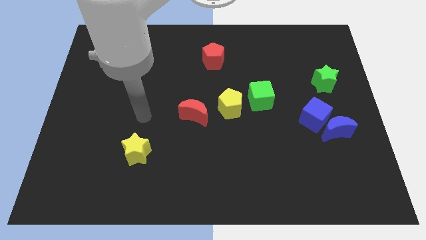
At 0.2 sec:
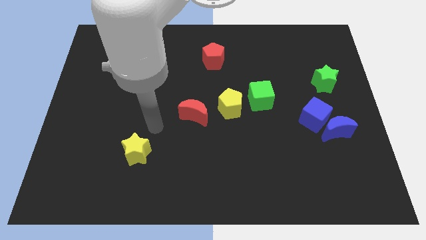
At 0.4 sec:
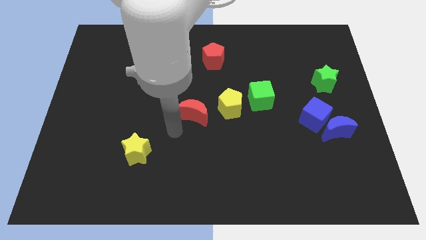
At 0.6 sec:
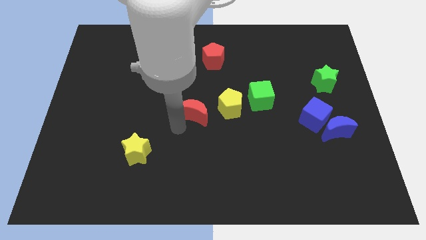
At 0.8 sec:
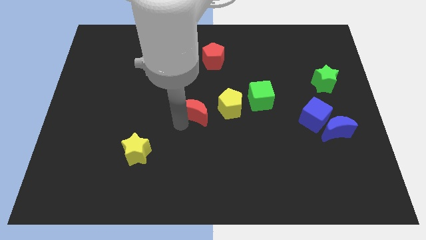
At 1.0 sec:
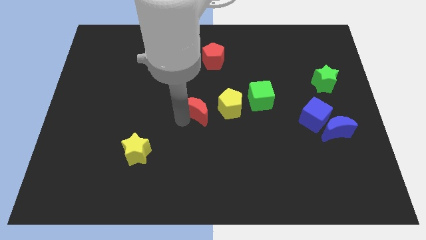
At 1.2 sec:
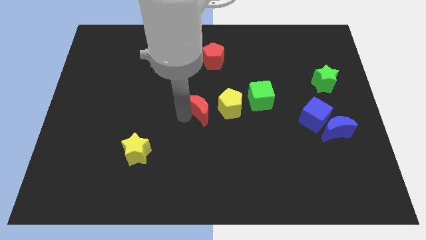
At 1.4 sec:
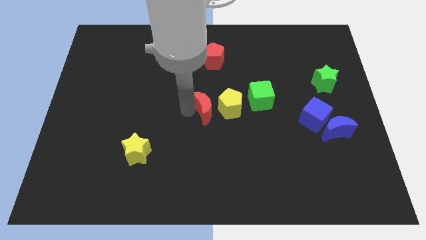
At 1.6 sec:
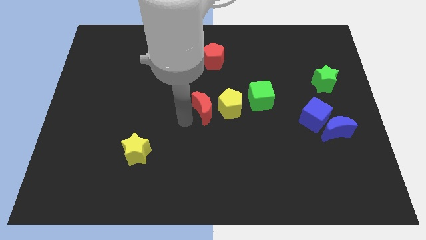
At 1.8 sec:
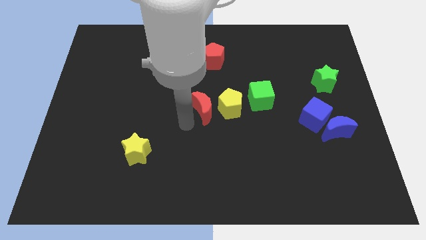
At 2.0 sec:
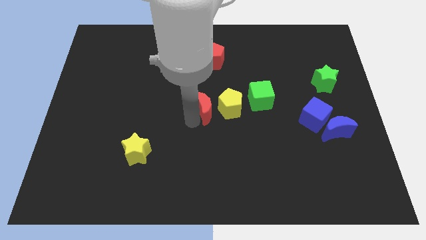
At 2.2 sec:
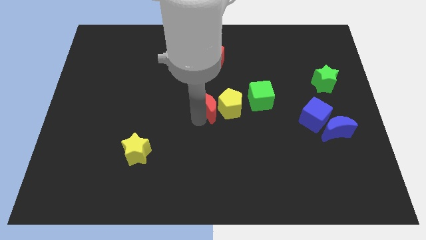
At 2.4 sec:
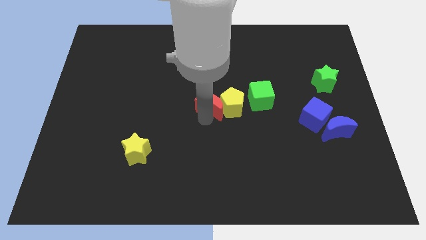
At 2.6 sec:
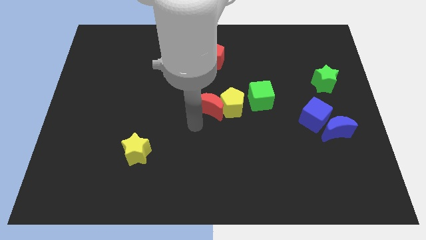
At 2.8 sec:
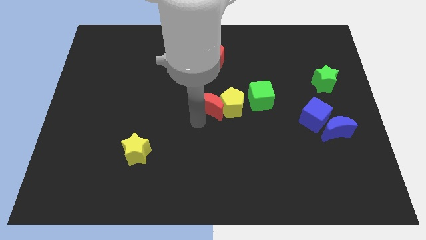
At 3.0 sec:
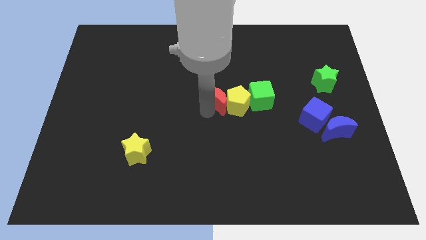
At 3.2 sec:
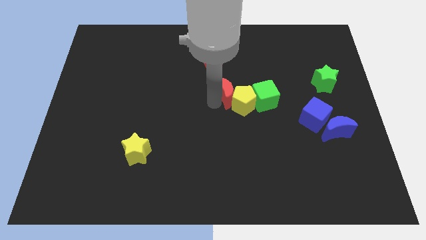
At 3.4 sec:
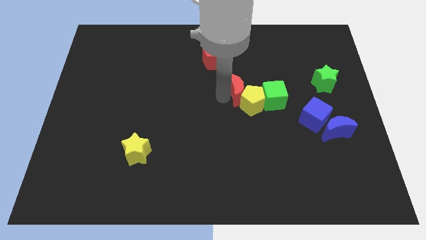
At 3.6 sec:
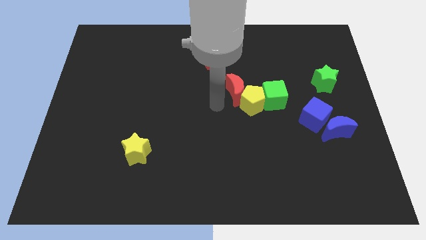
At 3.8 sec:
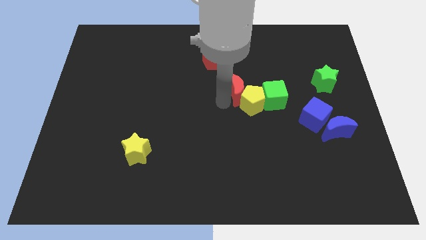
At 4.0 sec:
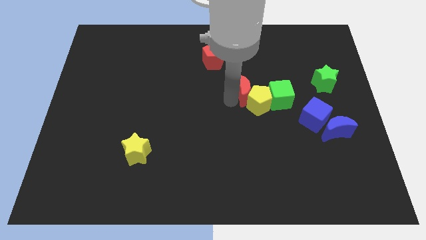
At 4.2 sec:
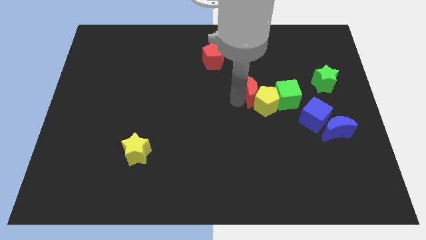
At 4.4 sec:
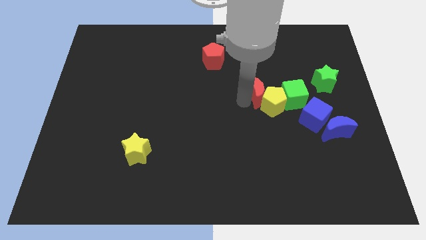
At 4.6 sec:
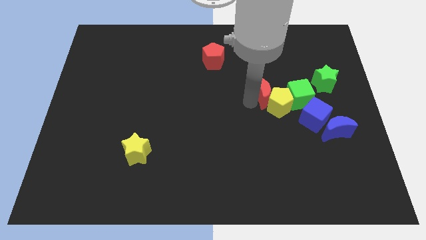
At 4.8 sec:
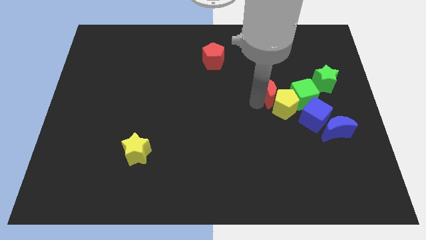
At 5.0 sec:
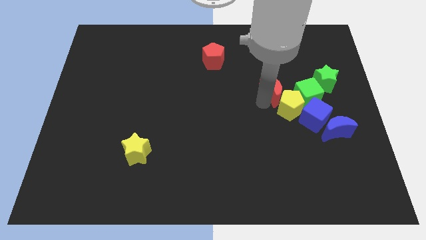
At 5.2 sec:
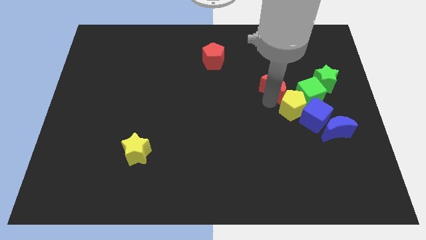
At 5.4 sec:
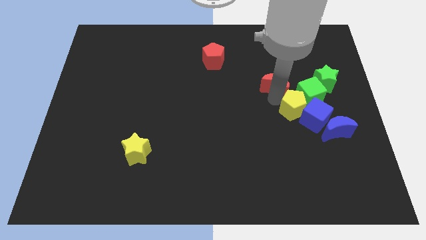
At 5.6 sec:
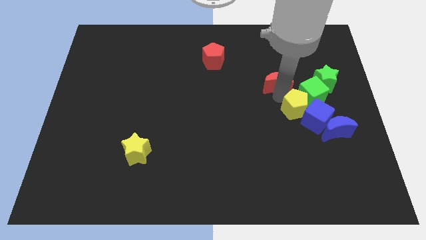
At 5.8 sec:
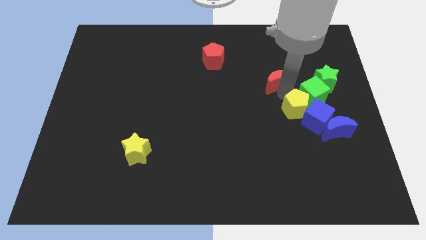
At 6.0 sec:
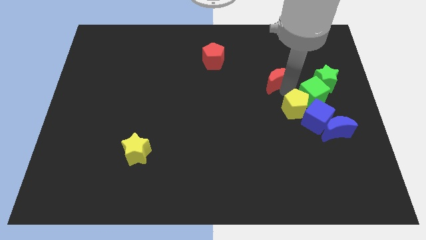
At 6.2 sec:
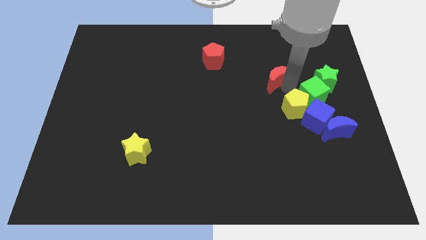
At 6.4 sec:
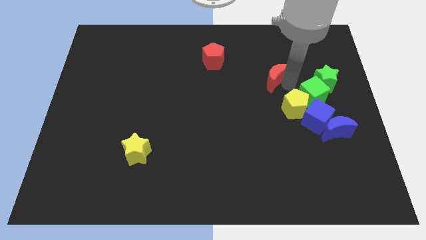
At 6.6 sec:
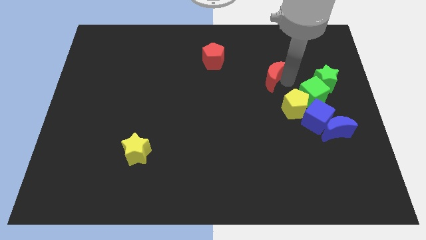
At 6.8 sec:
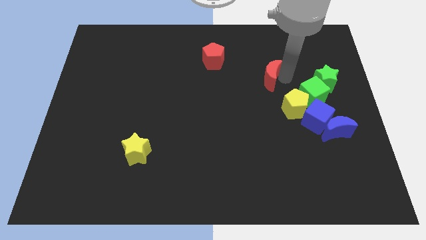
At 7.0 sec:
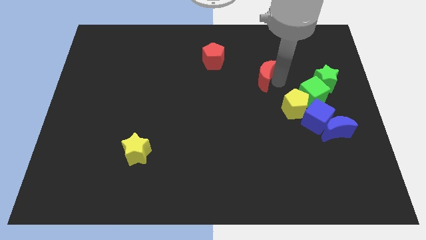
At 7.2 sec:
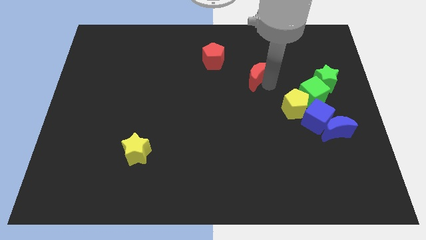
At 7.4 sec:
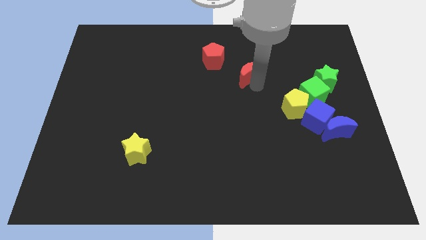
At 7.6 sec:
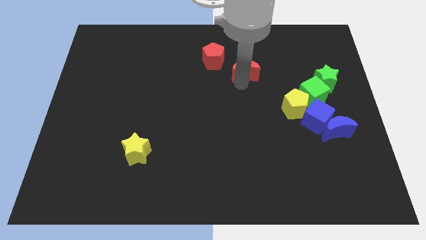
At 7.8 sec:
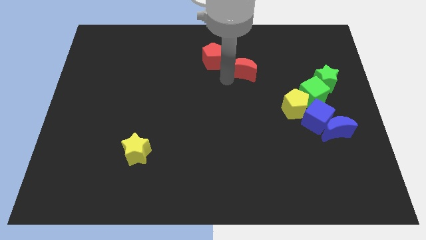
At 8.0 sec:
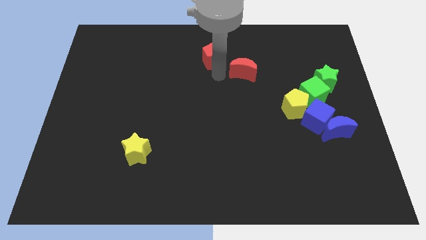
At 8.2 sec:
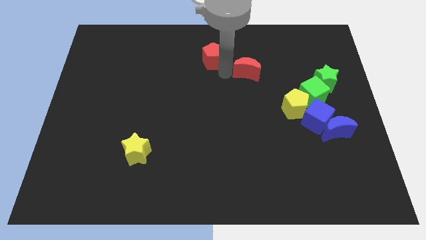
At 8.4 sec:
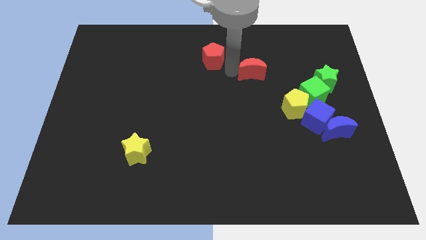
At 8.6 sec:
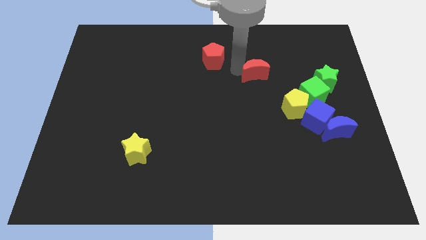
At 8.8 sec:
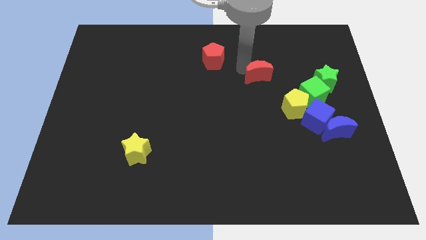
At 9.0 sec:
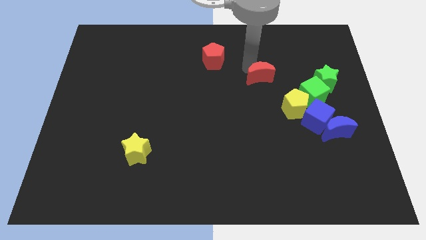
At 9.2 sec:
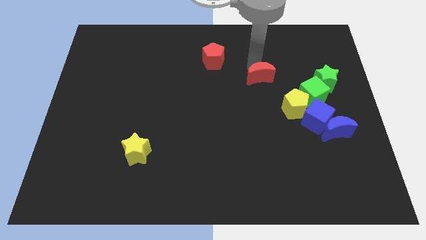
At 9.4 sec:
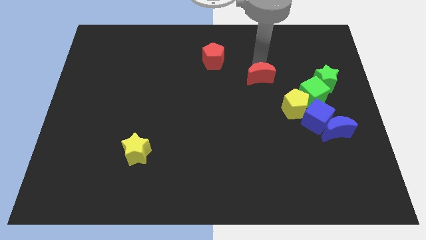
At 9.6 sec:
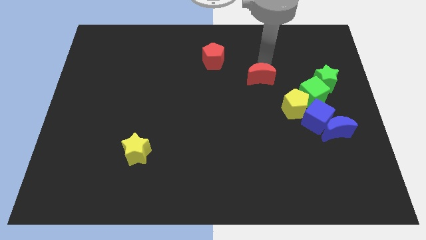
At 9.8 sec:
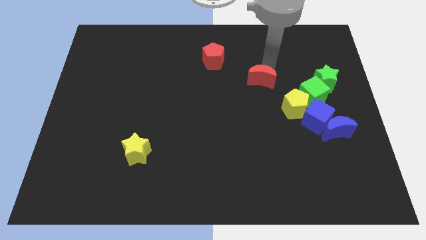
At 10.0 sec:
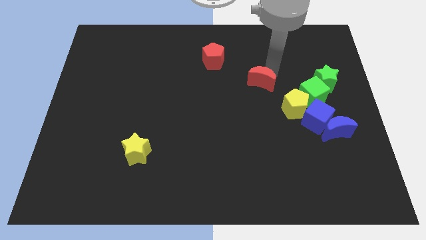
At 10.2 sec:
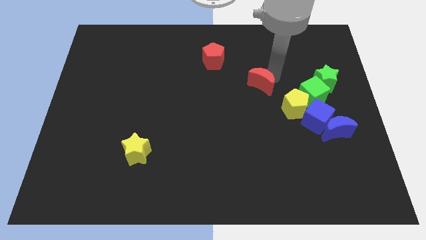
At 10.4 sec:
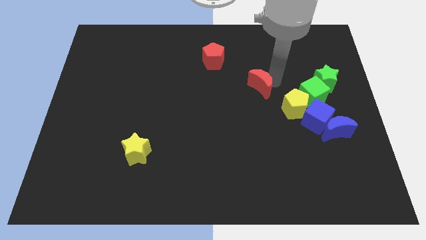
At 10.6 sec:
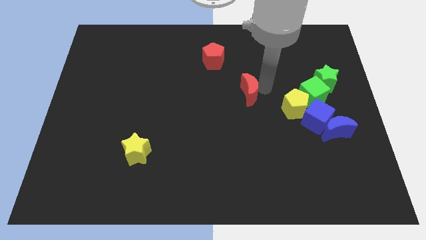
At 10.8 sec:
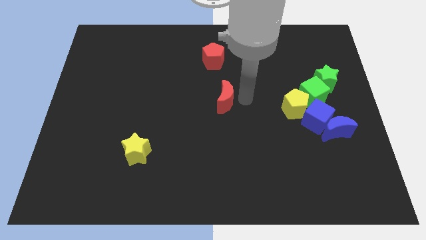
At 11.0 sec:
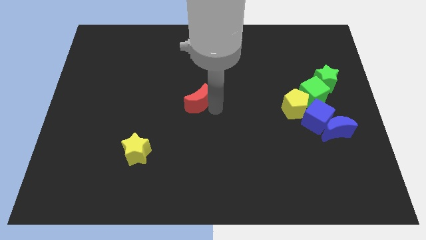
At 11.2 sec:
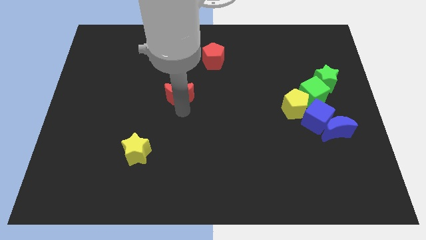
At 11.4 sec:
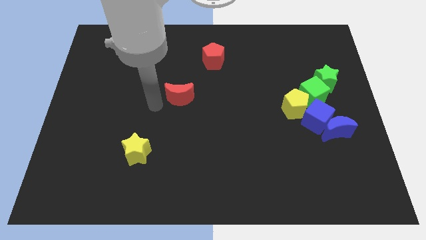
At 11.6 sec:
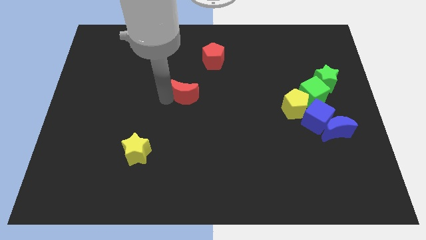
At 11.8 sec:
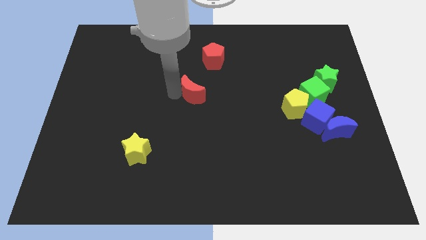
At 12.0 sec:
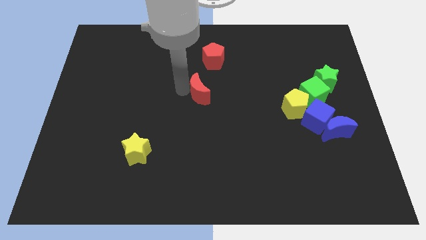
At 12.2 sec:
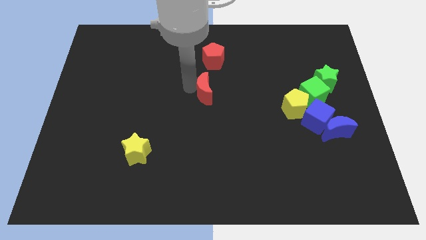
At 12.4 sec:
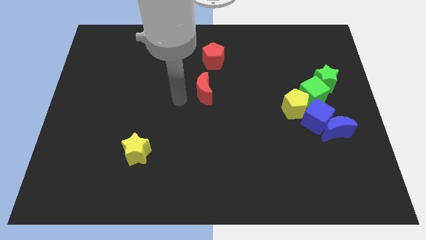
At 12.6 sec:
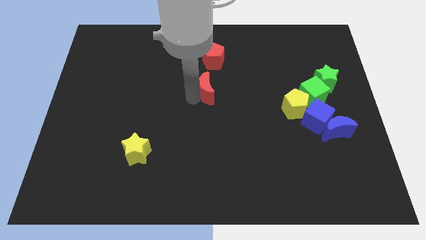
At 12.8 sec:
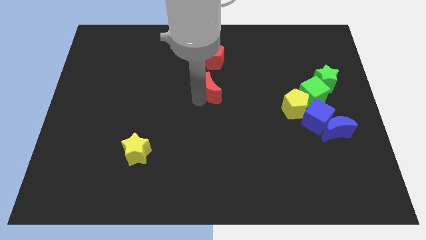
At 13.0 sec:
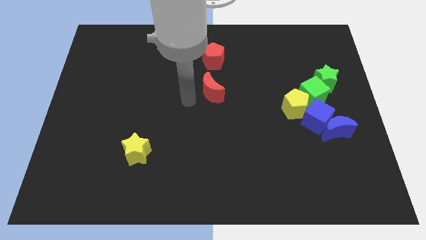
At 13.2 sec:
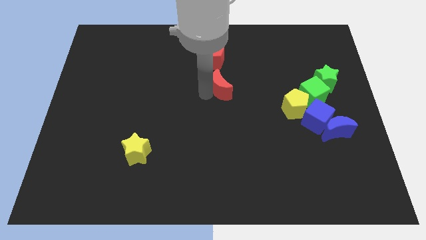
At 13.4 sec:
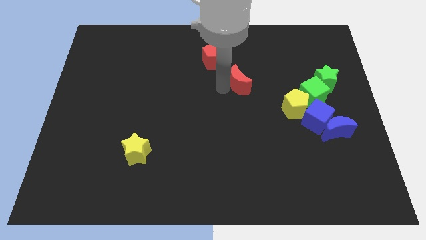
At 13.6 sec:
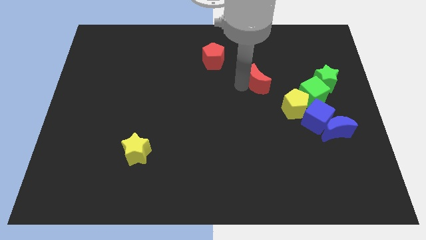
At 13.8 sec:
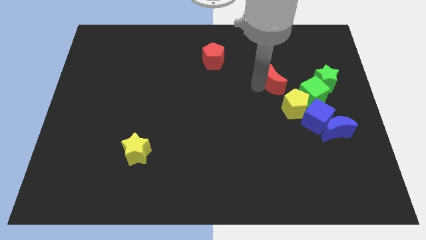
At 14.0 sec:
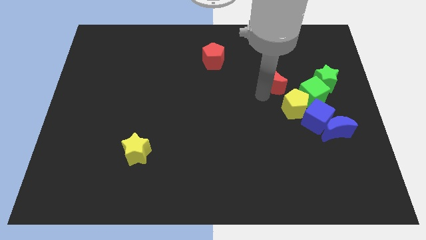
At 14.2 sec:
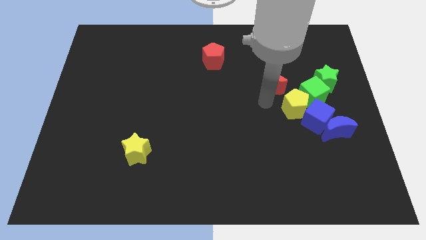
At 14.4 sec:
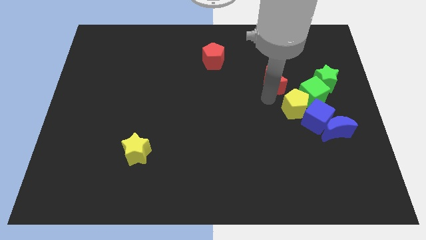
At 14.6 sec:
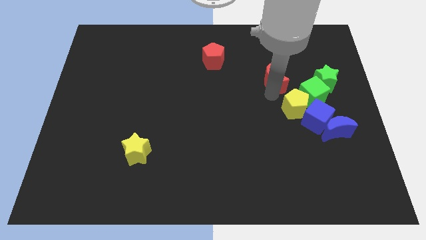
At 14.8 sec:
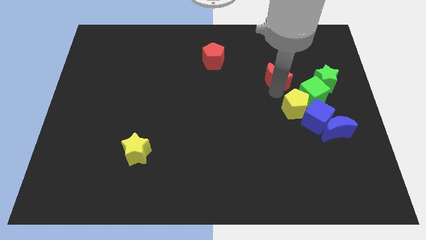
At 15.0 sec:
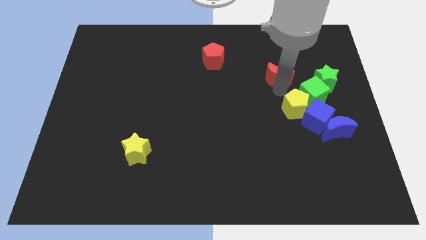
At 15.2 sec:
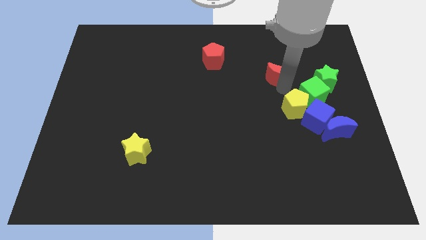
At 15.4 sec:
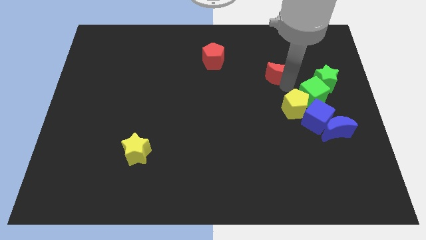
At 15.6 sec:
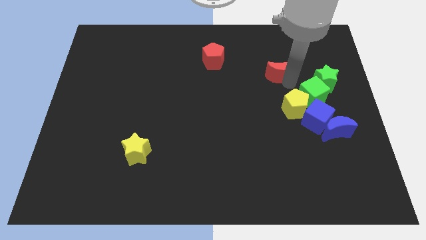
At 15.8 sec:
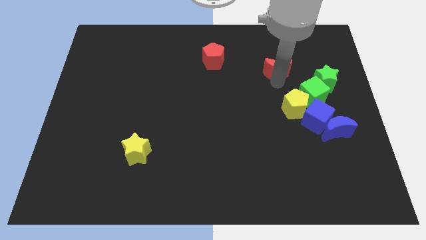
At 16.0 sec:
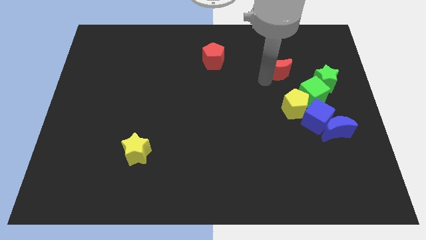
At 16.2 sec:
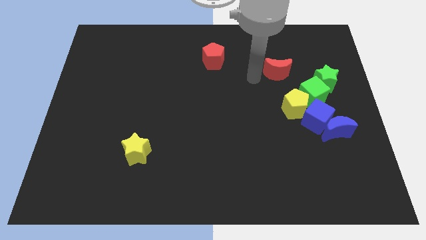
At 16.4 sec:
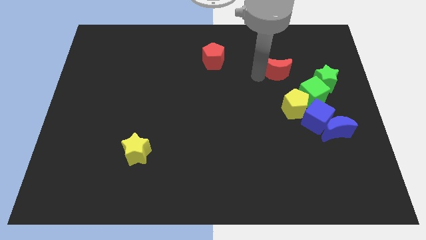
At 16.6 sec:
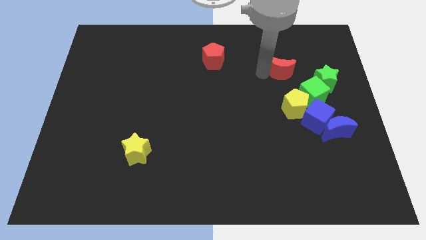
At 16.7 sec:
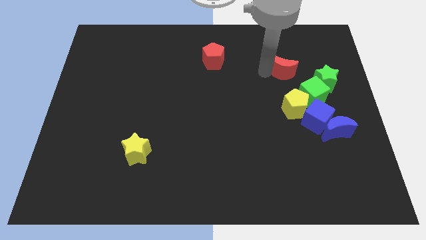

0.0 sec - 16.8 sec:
move the red moon to the top left of the green star
